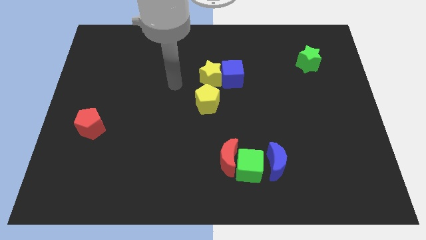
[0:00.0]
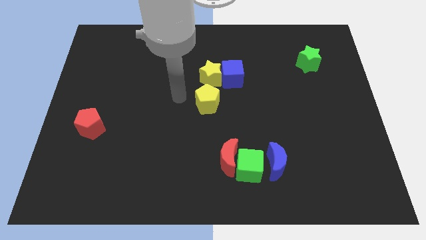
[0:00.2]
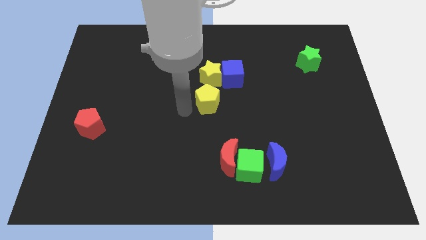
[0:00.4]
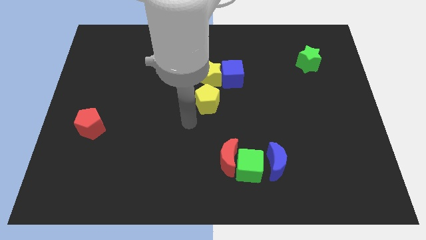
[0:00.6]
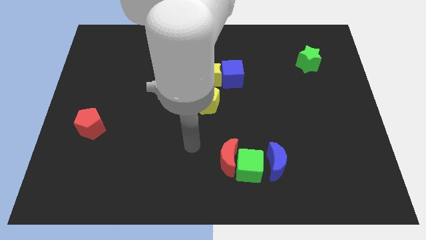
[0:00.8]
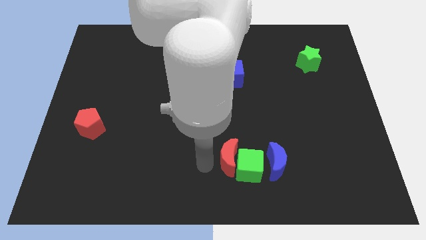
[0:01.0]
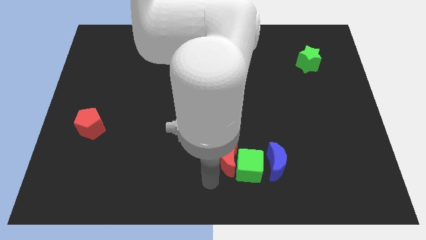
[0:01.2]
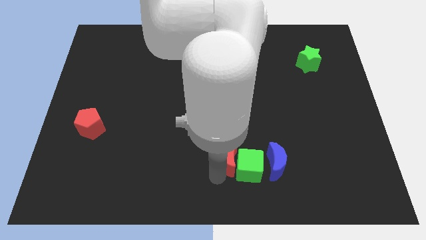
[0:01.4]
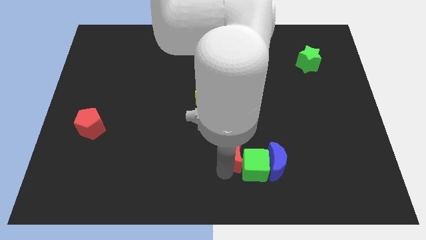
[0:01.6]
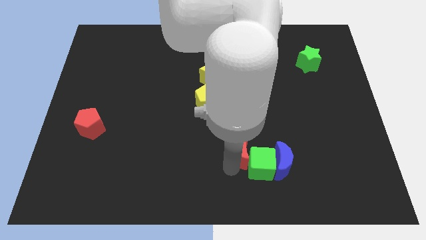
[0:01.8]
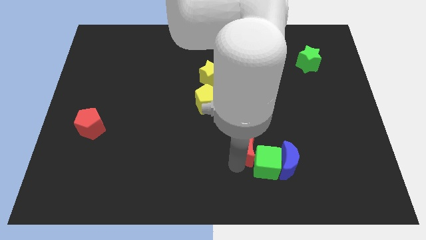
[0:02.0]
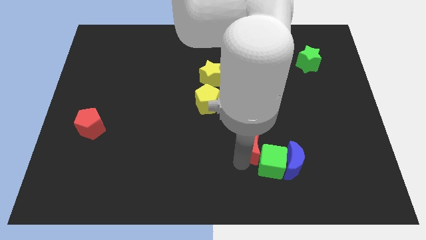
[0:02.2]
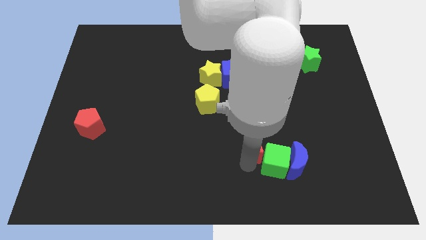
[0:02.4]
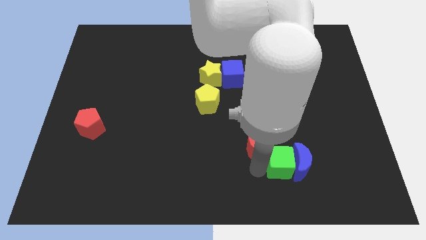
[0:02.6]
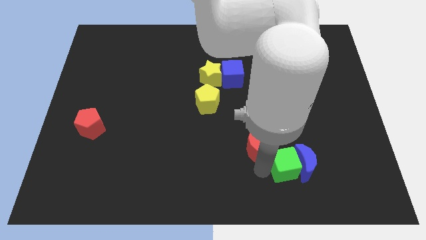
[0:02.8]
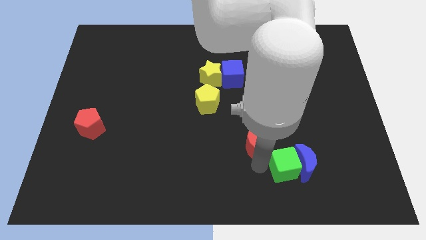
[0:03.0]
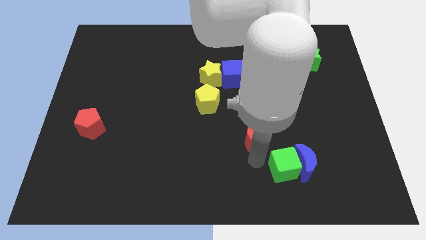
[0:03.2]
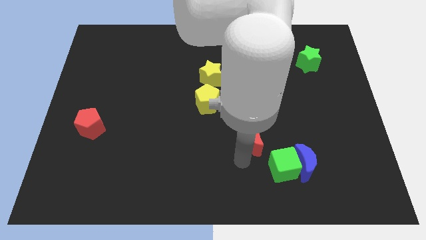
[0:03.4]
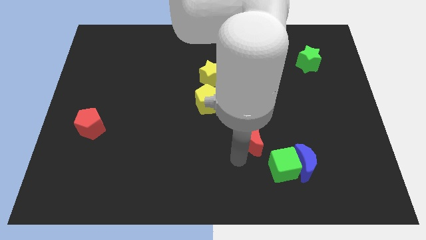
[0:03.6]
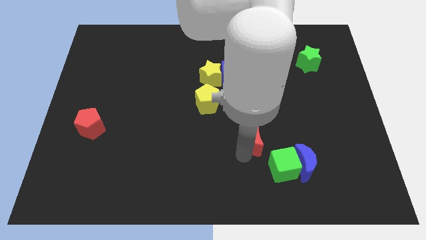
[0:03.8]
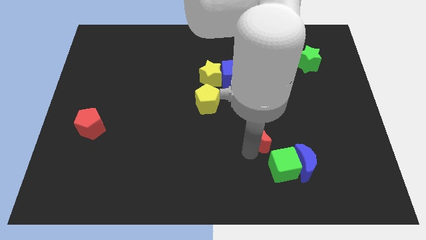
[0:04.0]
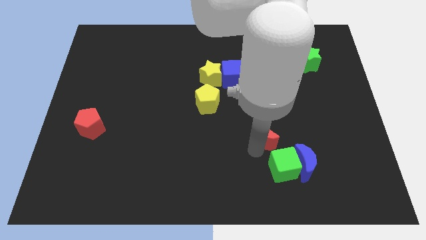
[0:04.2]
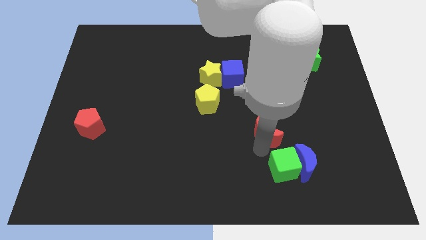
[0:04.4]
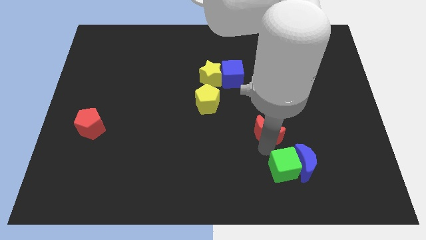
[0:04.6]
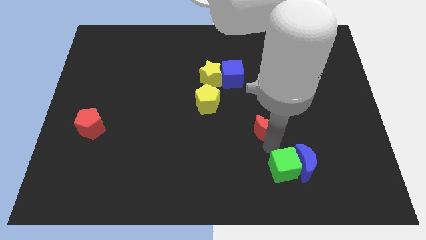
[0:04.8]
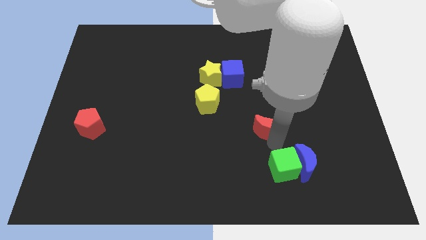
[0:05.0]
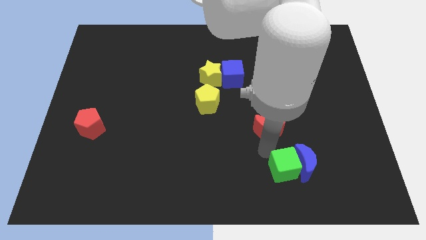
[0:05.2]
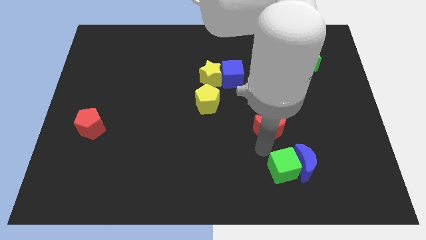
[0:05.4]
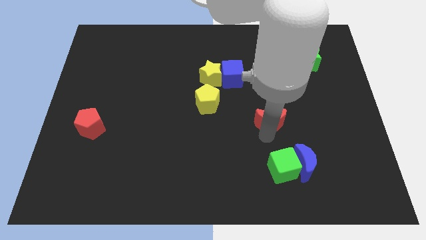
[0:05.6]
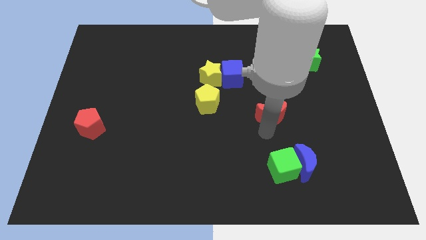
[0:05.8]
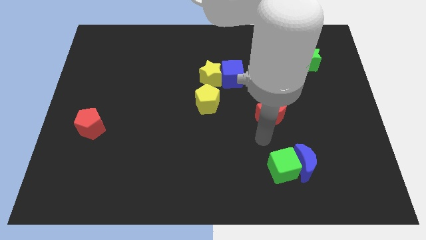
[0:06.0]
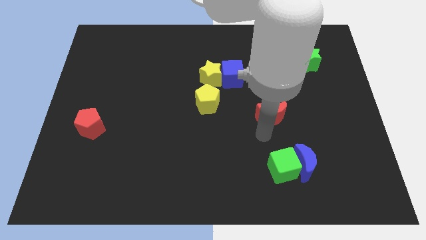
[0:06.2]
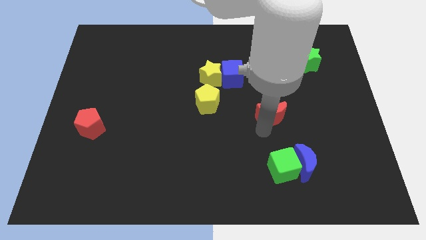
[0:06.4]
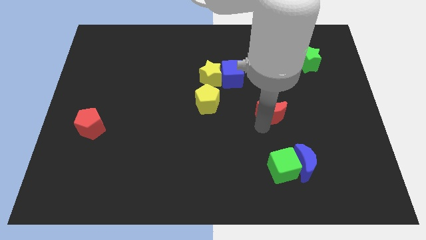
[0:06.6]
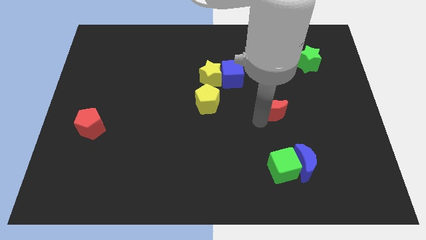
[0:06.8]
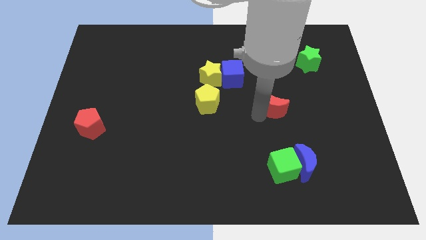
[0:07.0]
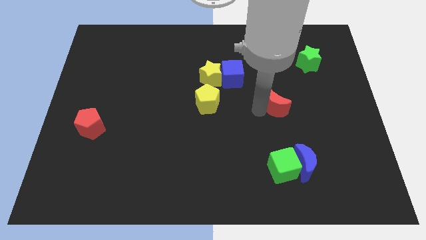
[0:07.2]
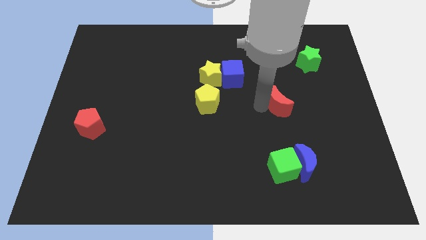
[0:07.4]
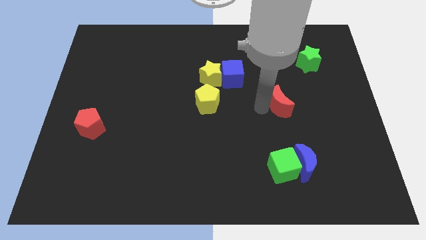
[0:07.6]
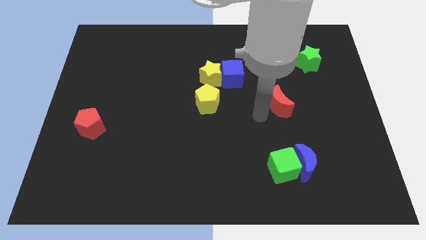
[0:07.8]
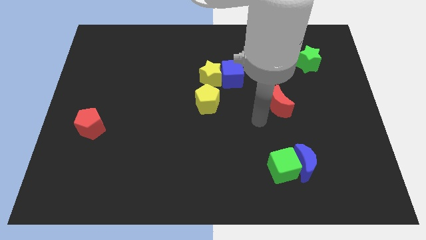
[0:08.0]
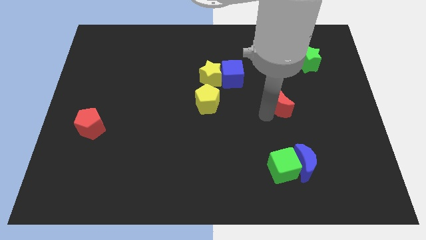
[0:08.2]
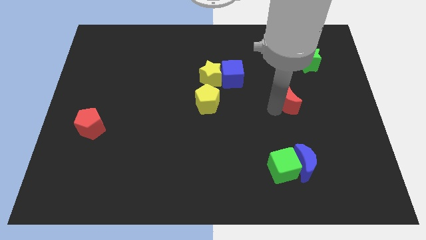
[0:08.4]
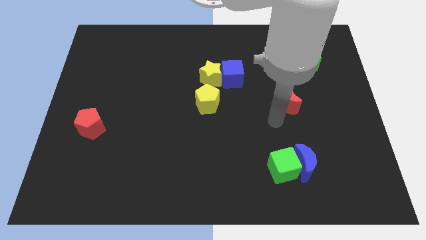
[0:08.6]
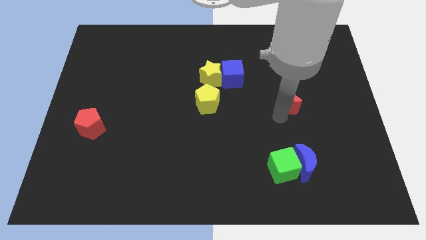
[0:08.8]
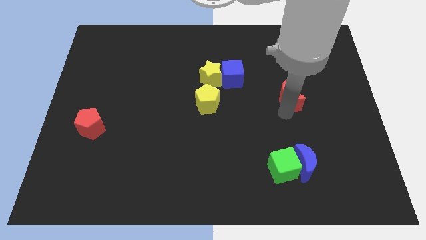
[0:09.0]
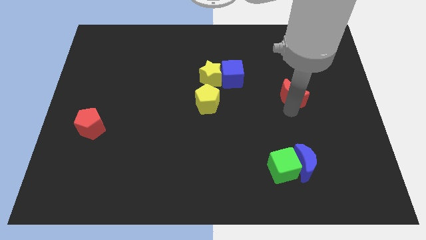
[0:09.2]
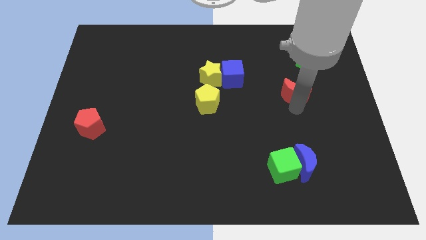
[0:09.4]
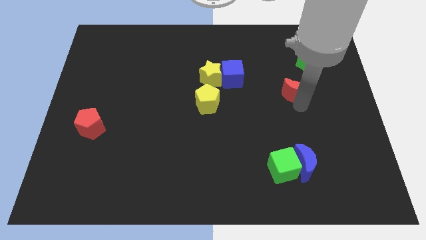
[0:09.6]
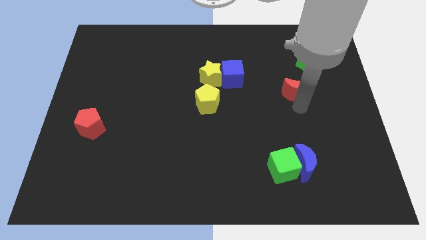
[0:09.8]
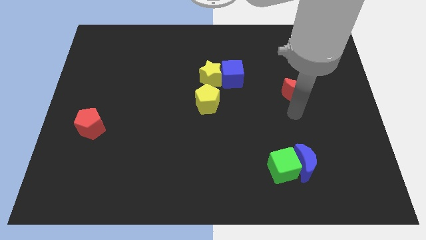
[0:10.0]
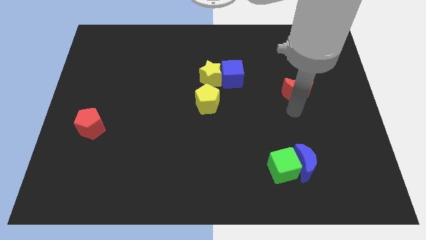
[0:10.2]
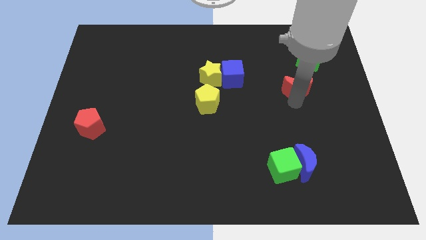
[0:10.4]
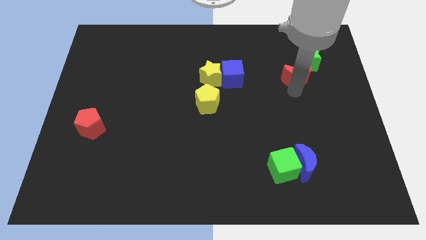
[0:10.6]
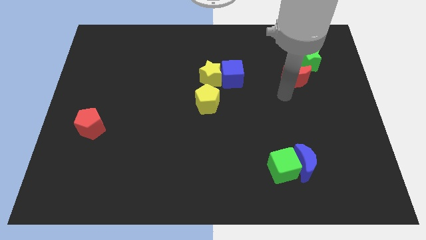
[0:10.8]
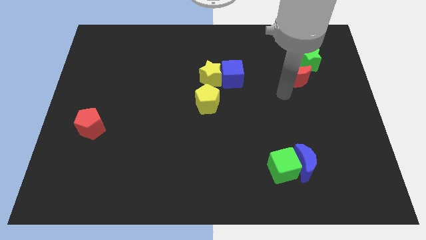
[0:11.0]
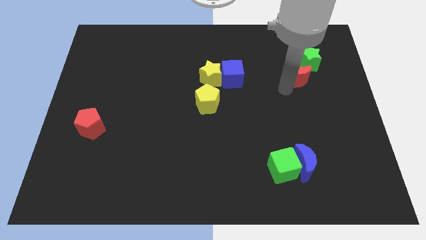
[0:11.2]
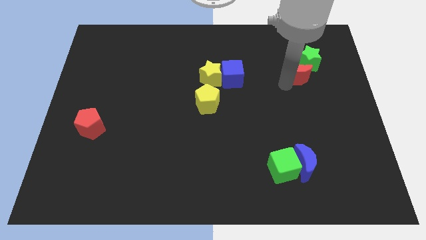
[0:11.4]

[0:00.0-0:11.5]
slide the red moon towards the green star

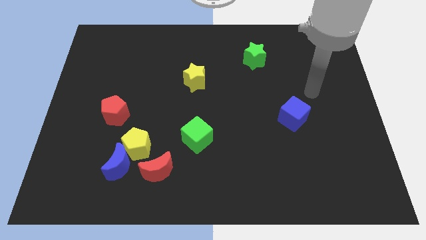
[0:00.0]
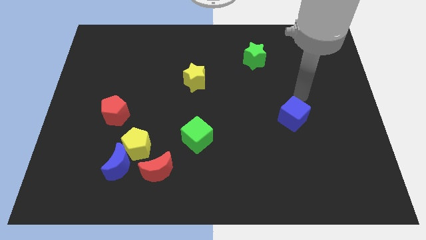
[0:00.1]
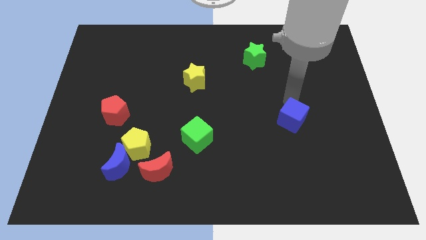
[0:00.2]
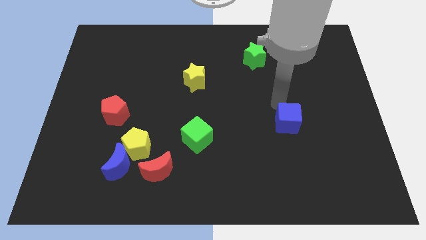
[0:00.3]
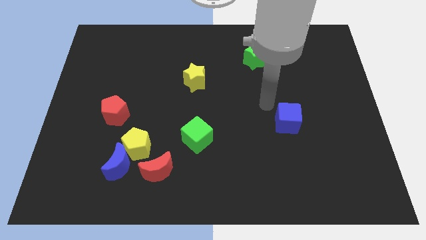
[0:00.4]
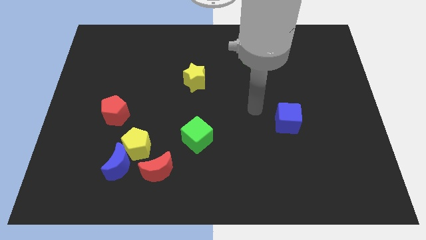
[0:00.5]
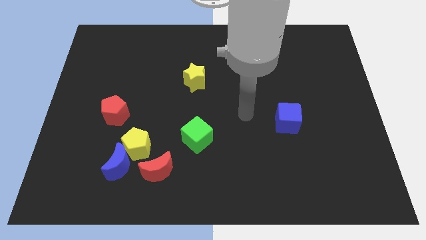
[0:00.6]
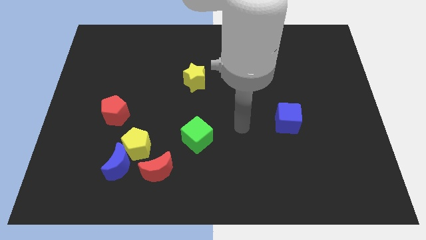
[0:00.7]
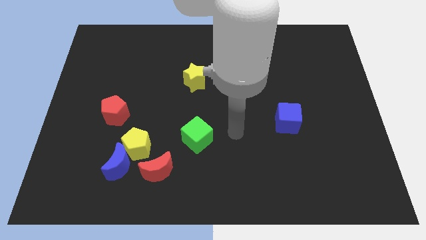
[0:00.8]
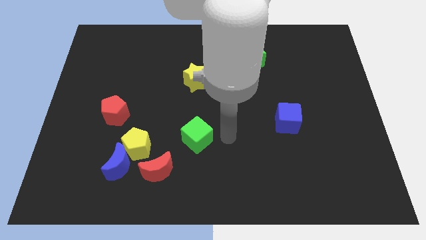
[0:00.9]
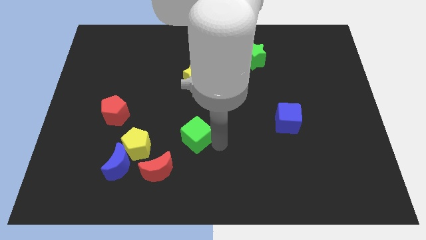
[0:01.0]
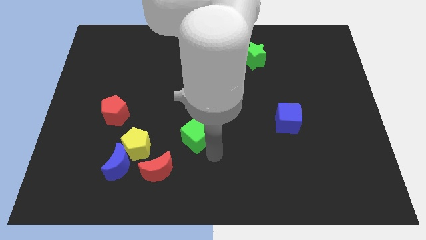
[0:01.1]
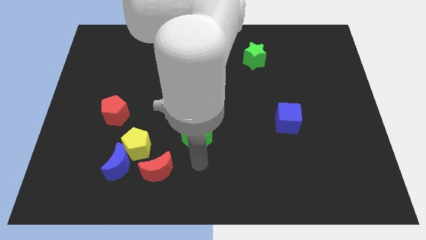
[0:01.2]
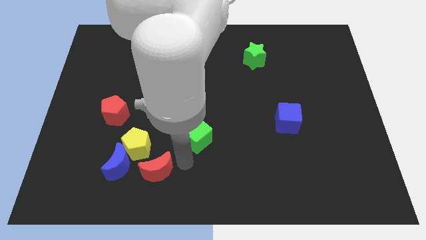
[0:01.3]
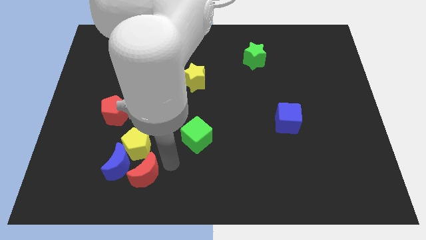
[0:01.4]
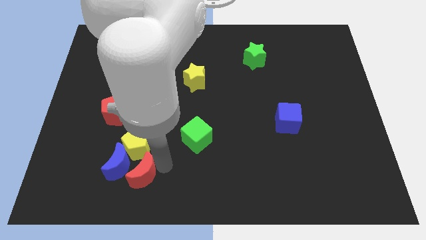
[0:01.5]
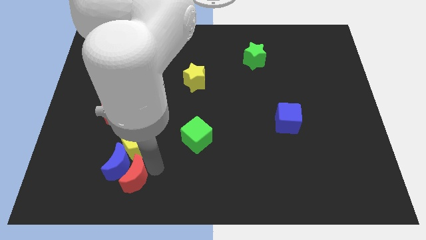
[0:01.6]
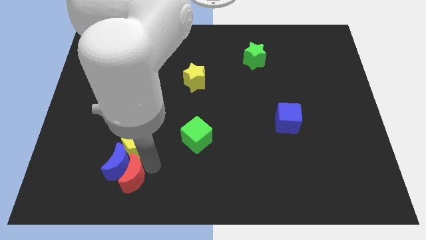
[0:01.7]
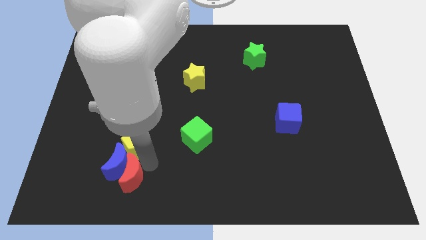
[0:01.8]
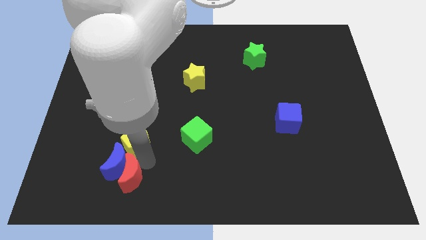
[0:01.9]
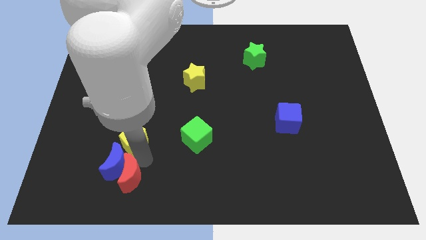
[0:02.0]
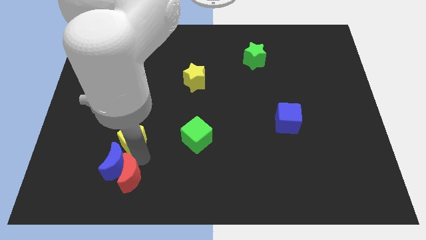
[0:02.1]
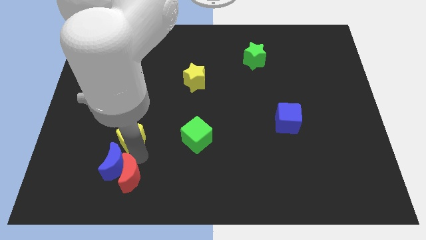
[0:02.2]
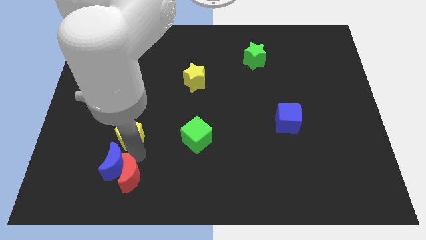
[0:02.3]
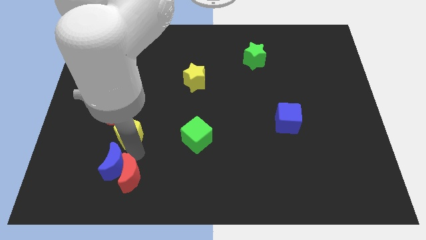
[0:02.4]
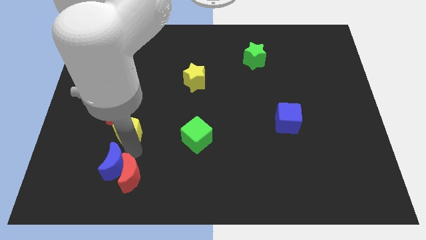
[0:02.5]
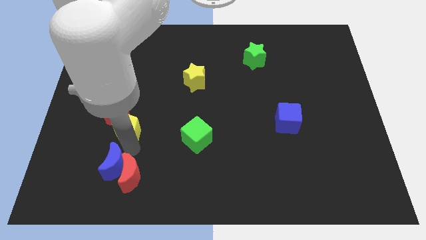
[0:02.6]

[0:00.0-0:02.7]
push the yellow pentagon next to the red pentagon

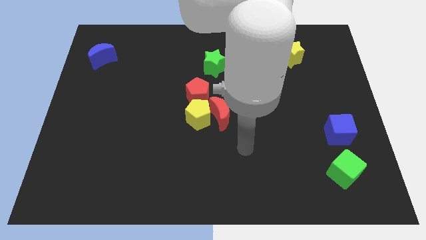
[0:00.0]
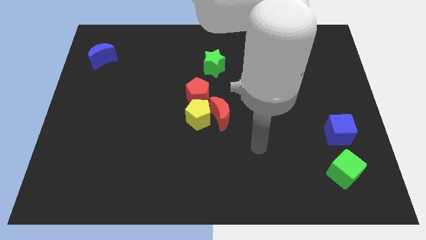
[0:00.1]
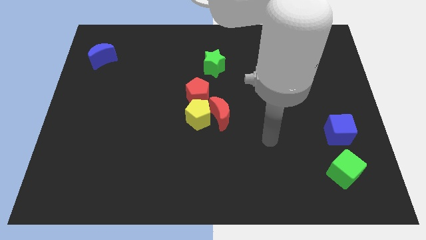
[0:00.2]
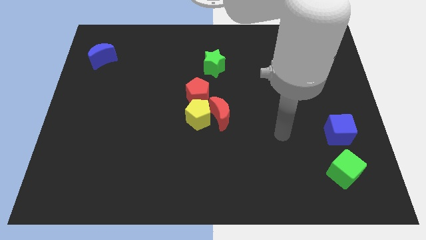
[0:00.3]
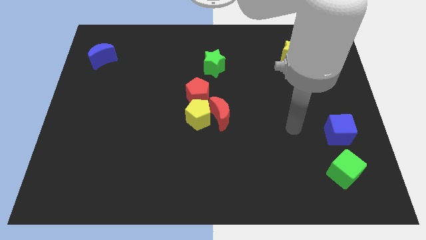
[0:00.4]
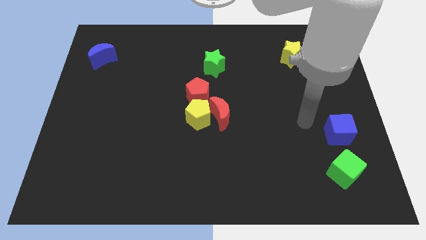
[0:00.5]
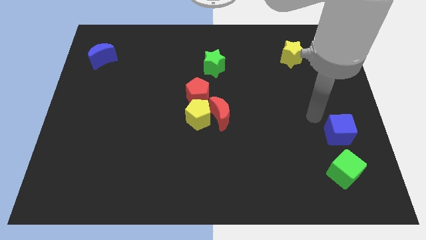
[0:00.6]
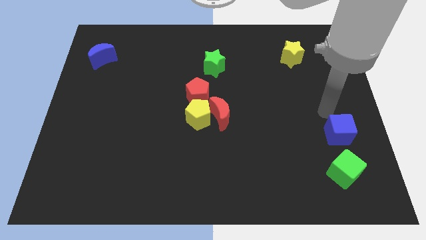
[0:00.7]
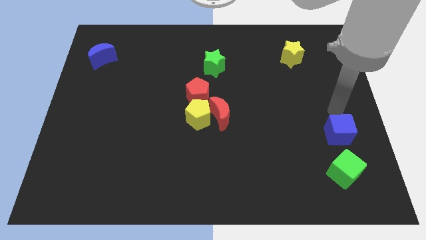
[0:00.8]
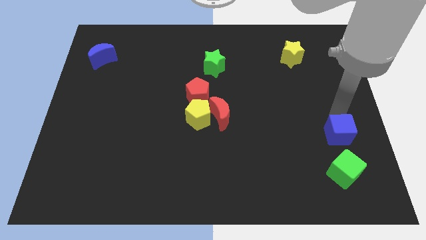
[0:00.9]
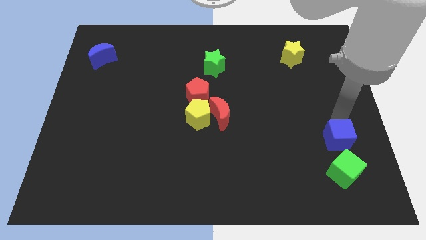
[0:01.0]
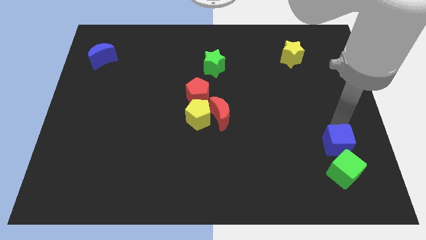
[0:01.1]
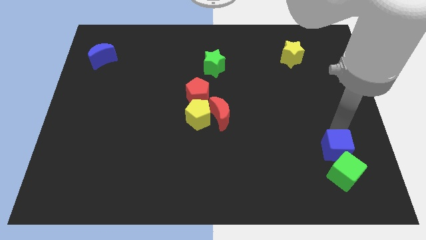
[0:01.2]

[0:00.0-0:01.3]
move the blue cube to the green cube
